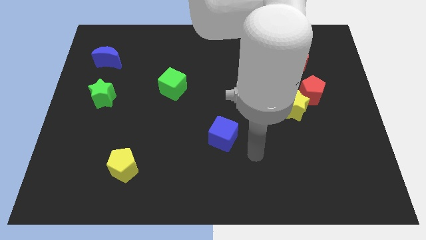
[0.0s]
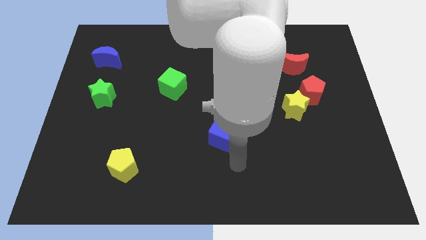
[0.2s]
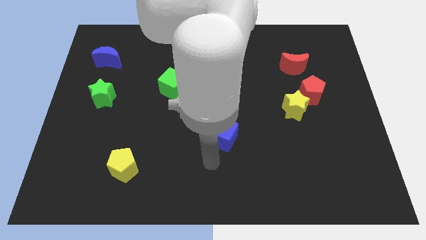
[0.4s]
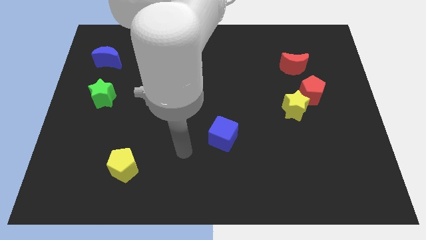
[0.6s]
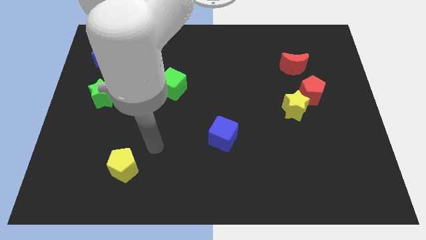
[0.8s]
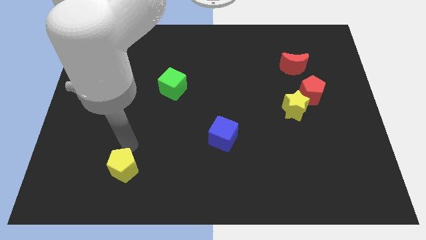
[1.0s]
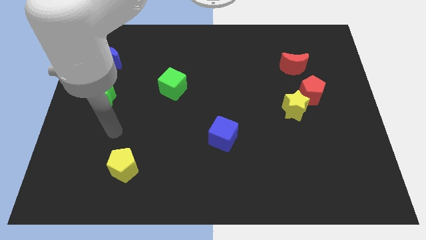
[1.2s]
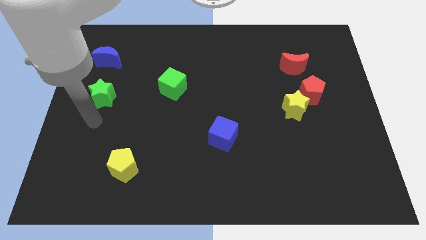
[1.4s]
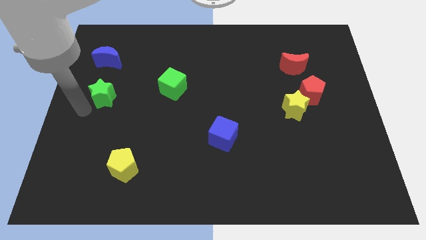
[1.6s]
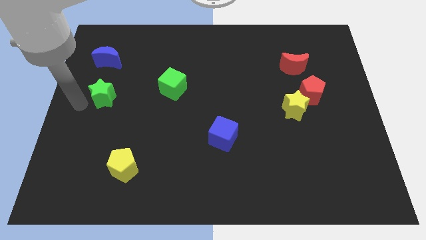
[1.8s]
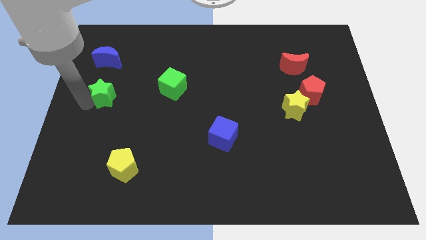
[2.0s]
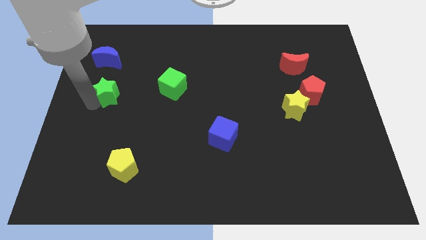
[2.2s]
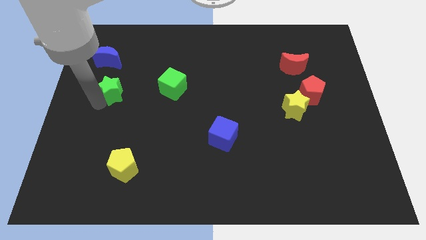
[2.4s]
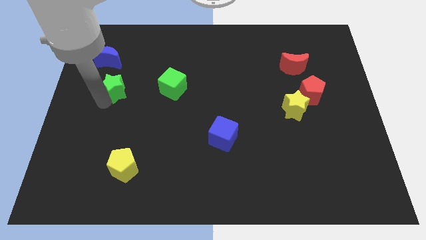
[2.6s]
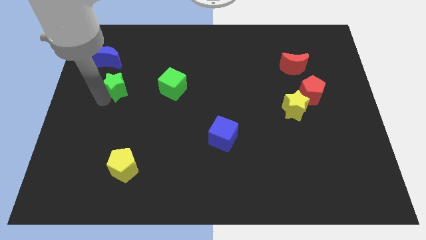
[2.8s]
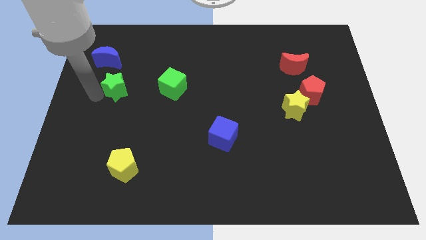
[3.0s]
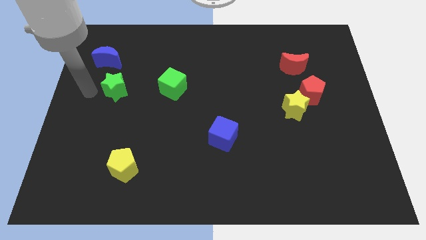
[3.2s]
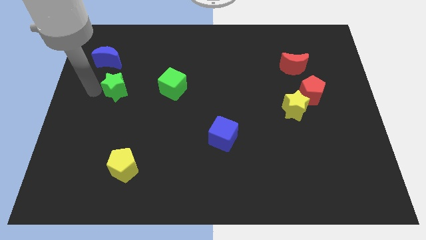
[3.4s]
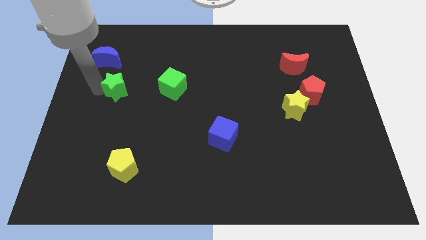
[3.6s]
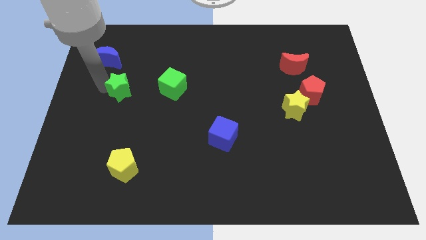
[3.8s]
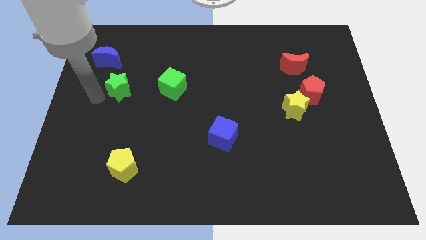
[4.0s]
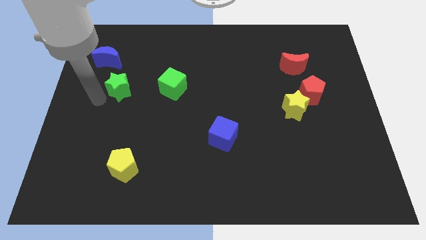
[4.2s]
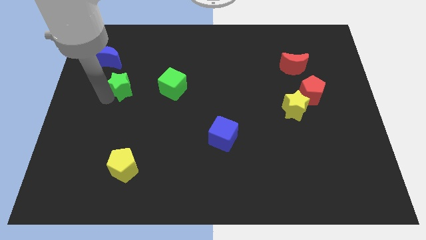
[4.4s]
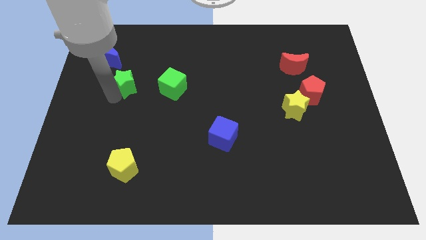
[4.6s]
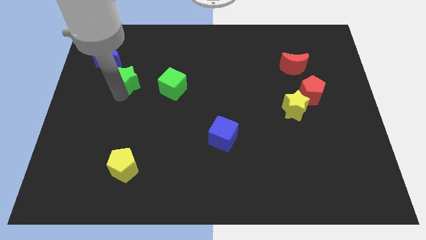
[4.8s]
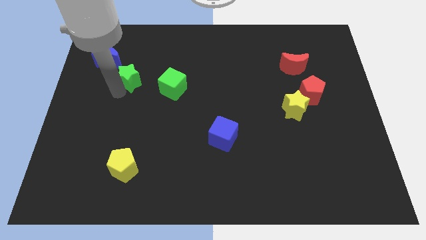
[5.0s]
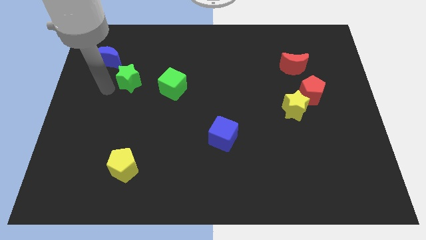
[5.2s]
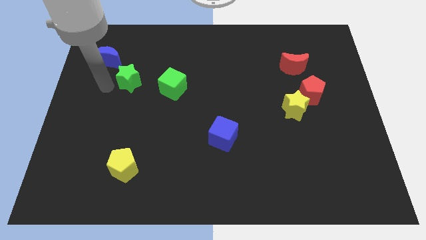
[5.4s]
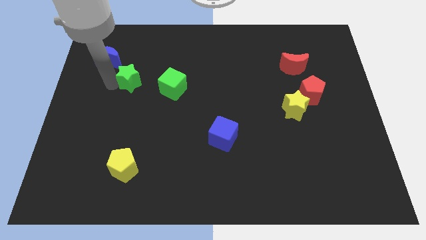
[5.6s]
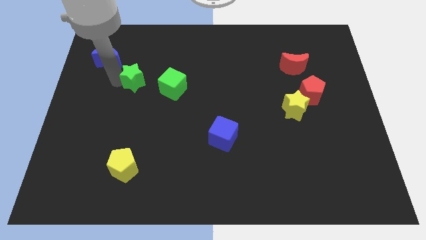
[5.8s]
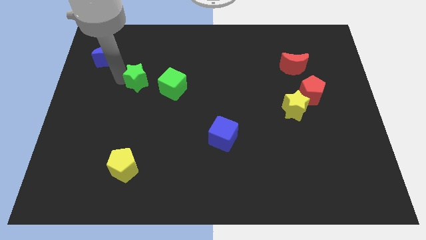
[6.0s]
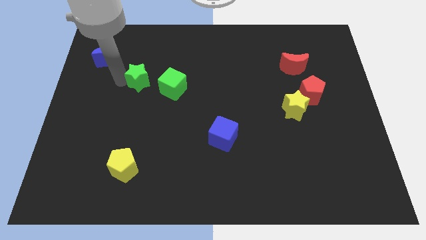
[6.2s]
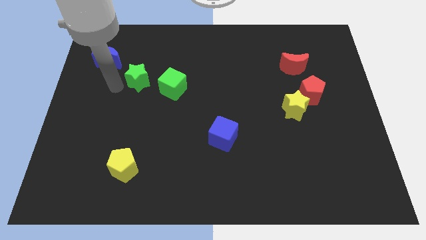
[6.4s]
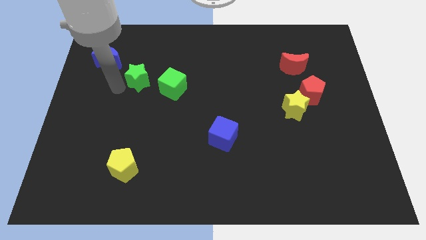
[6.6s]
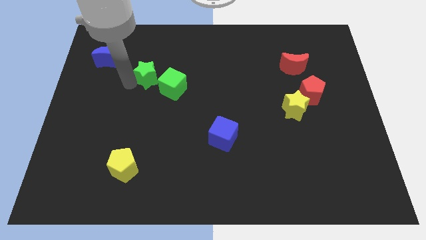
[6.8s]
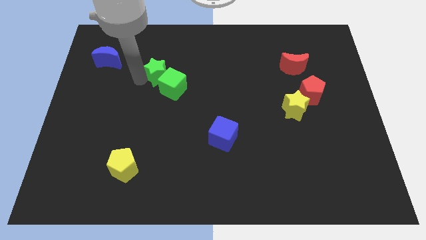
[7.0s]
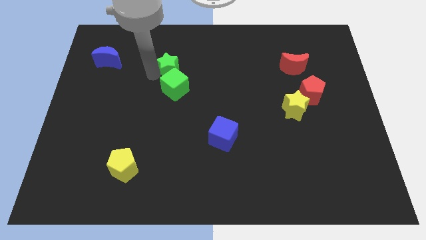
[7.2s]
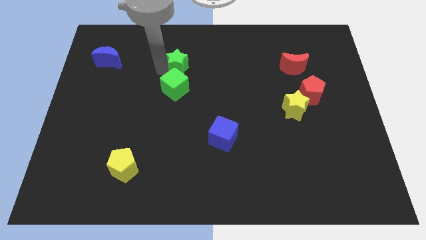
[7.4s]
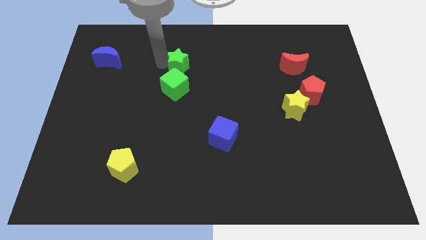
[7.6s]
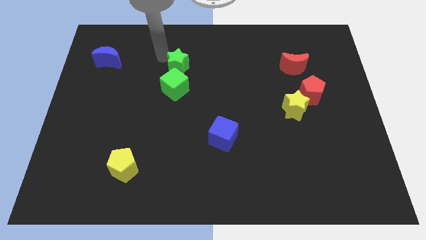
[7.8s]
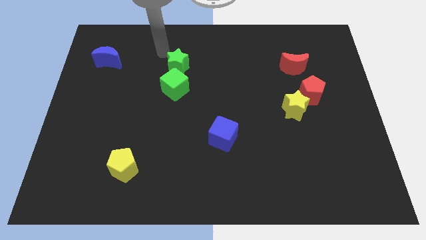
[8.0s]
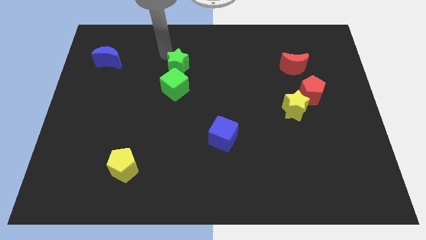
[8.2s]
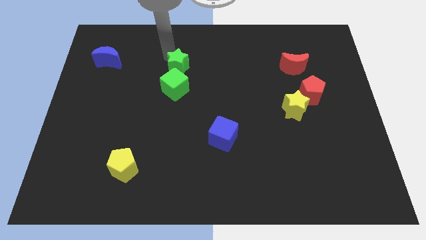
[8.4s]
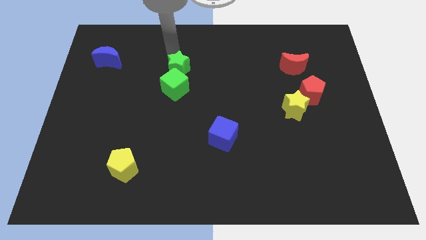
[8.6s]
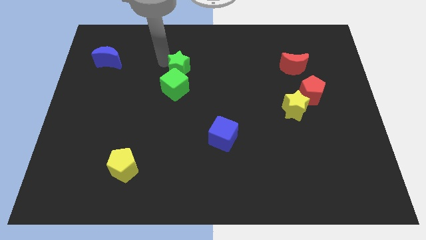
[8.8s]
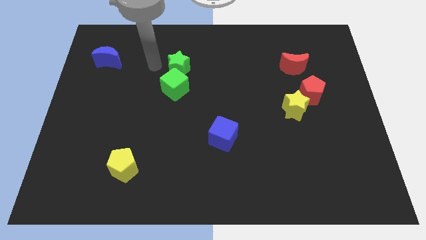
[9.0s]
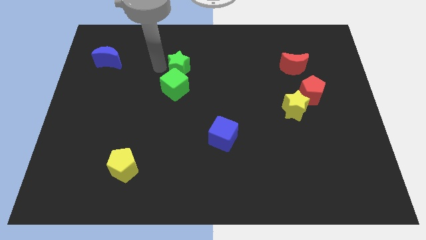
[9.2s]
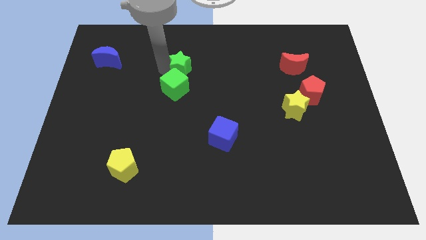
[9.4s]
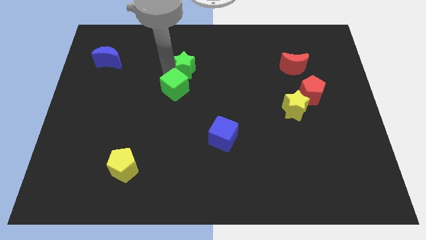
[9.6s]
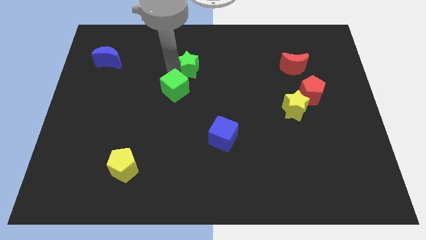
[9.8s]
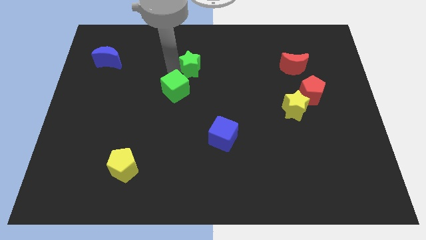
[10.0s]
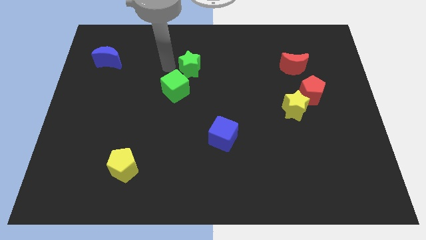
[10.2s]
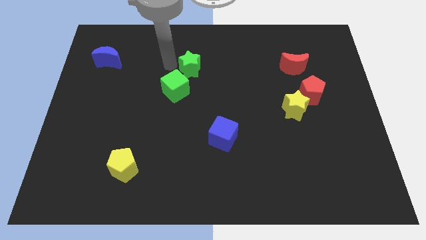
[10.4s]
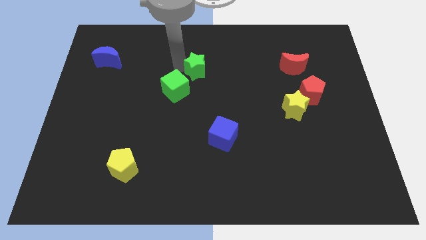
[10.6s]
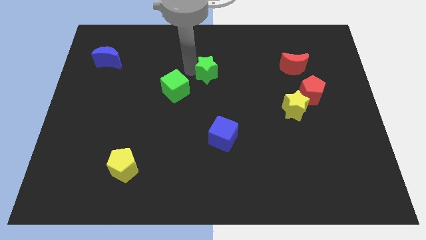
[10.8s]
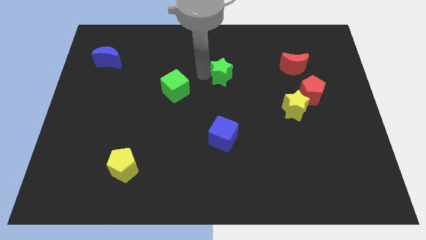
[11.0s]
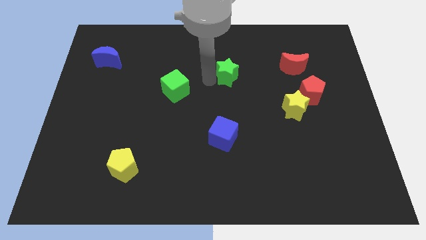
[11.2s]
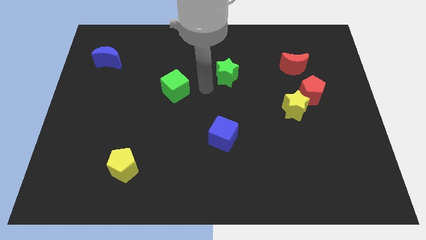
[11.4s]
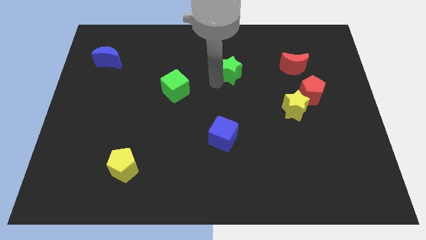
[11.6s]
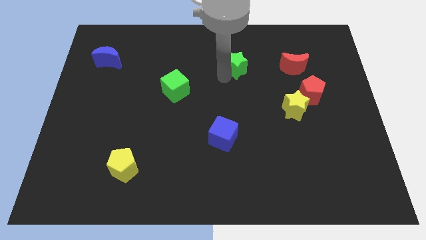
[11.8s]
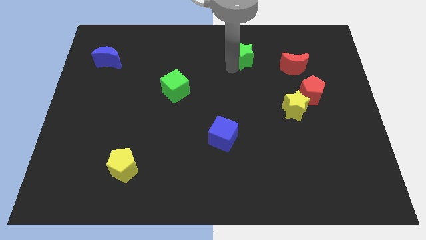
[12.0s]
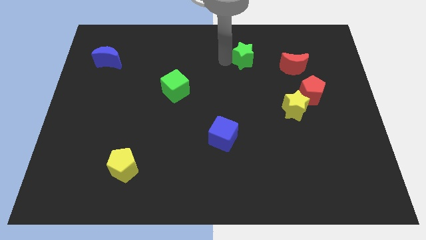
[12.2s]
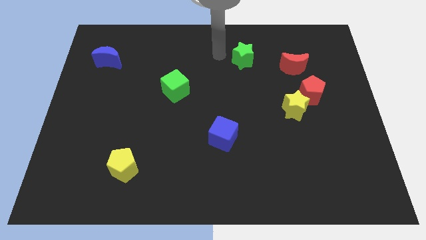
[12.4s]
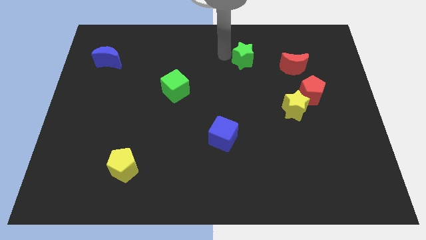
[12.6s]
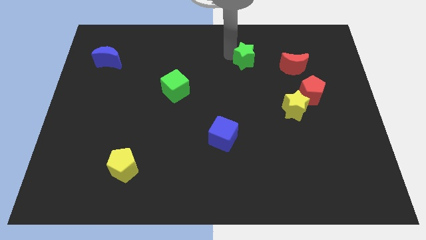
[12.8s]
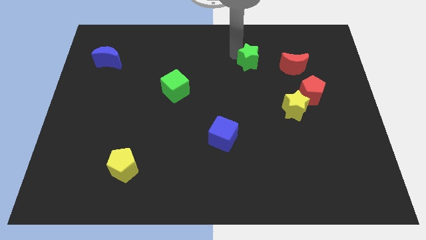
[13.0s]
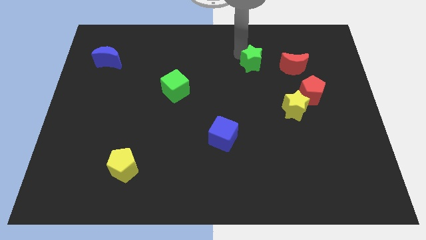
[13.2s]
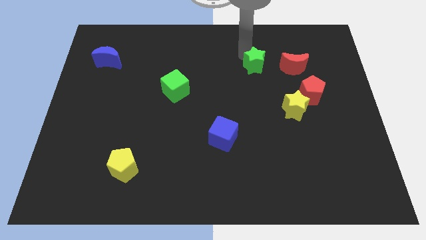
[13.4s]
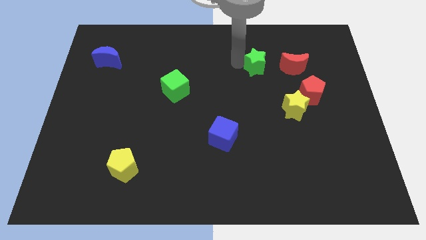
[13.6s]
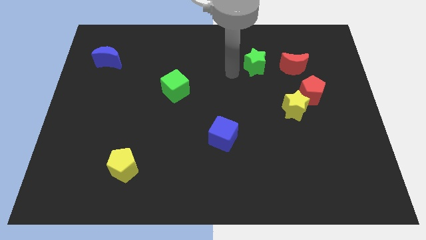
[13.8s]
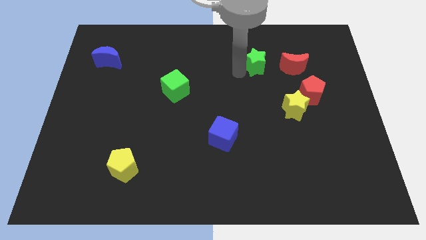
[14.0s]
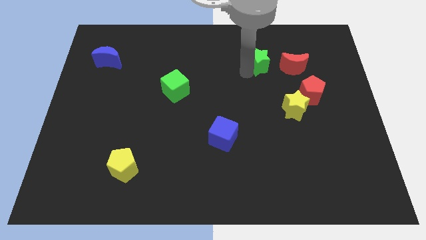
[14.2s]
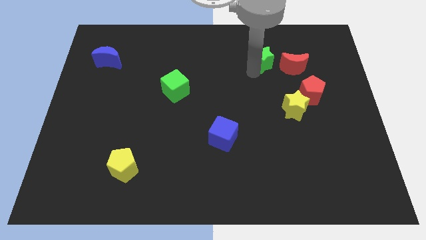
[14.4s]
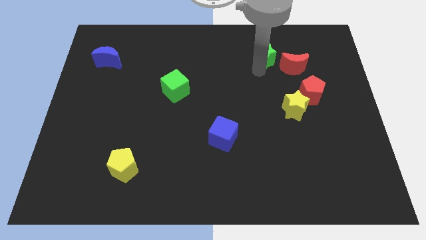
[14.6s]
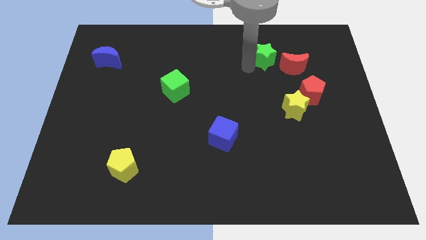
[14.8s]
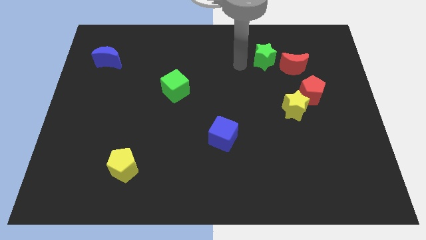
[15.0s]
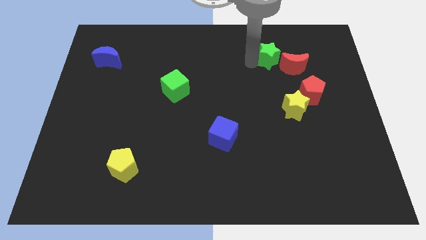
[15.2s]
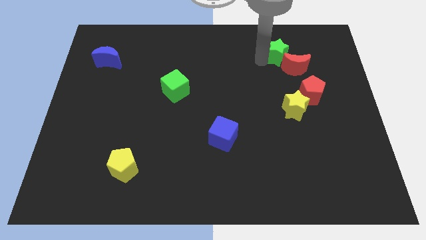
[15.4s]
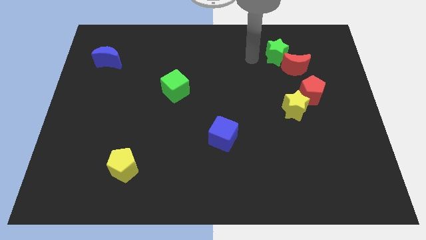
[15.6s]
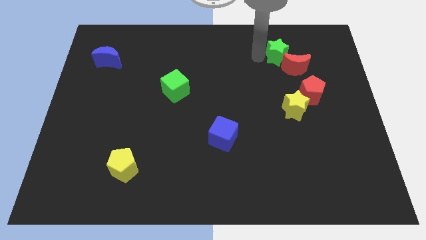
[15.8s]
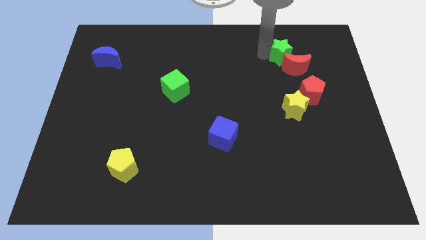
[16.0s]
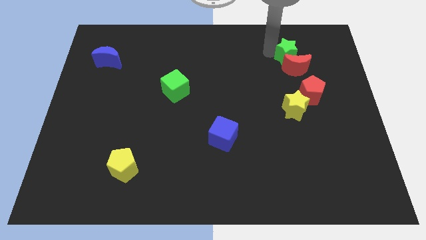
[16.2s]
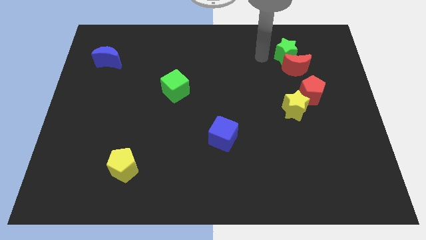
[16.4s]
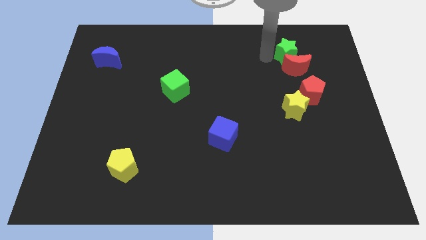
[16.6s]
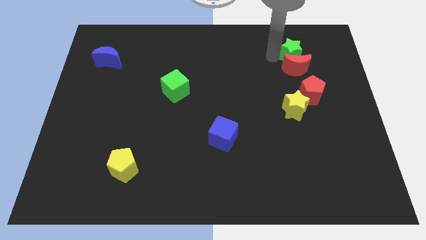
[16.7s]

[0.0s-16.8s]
put the green star to the top side of the red pentagon
